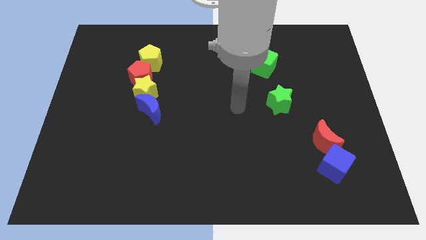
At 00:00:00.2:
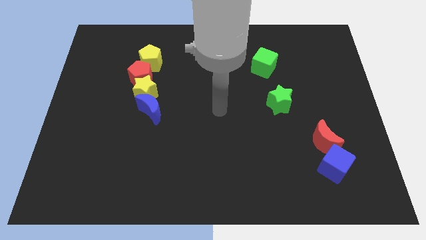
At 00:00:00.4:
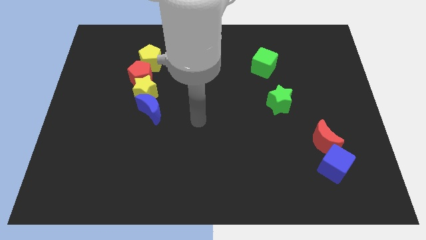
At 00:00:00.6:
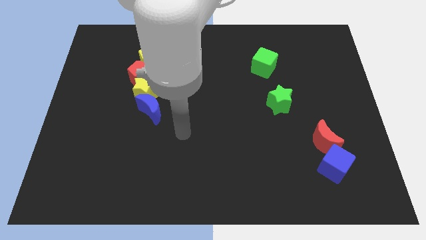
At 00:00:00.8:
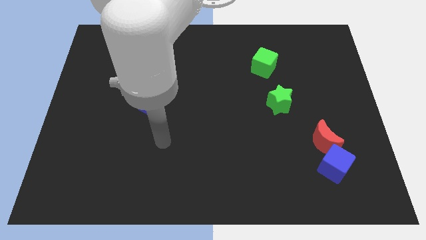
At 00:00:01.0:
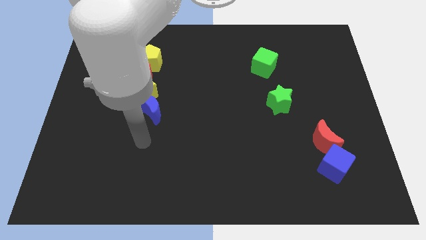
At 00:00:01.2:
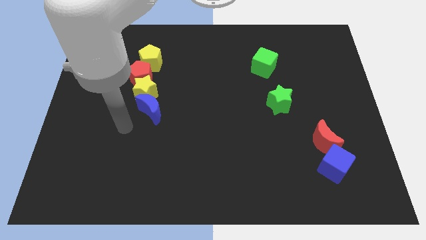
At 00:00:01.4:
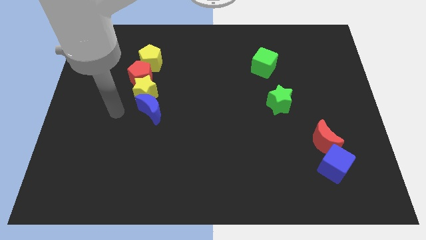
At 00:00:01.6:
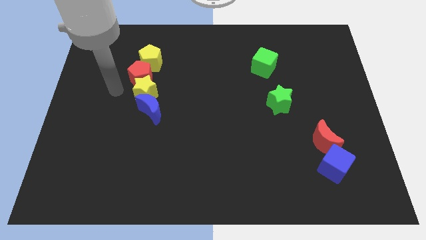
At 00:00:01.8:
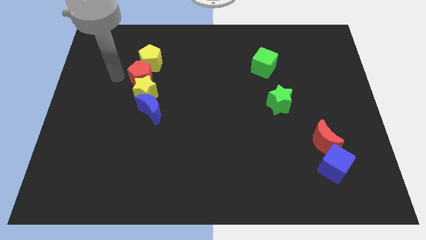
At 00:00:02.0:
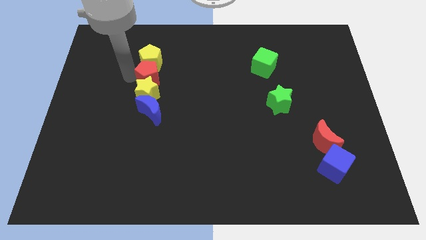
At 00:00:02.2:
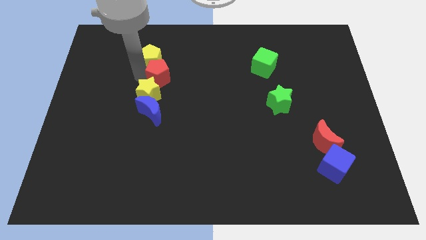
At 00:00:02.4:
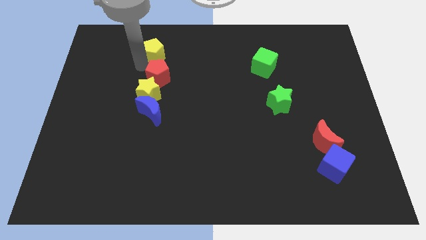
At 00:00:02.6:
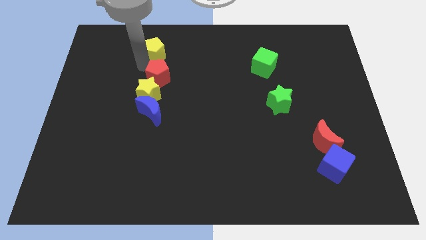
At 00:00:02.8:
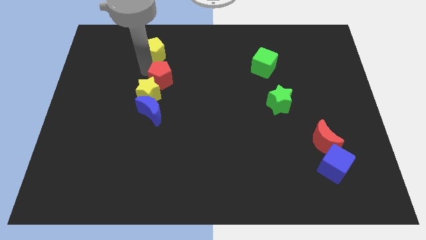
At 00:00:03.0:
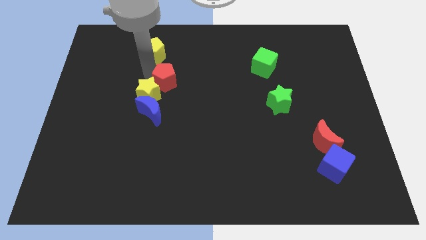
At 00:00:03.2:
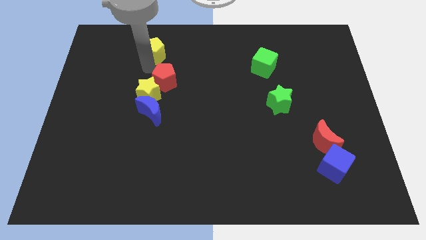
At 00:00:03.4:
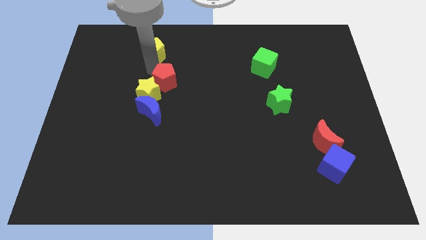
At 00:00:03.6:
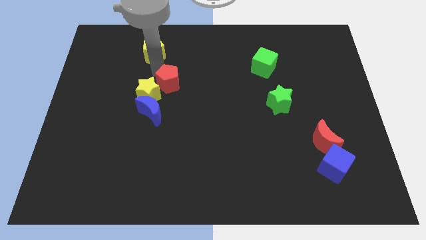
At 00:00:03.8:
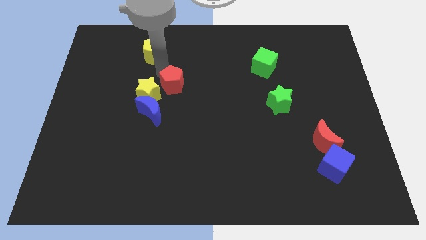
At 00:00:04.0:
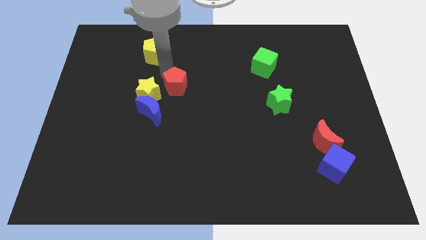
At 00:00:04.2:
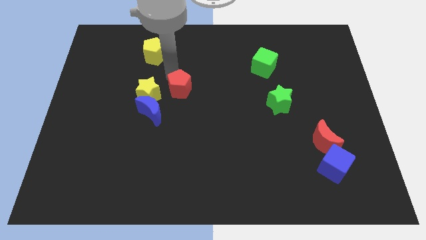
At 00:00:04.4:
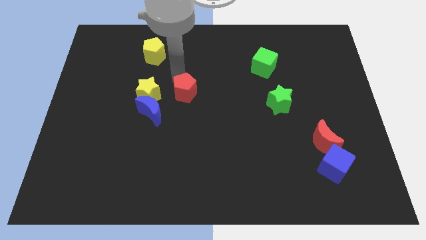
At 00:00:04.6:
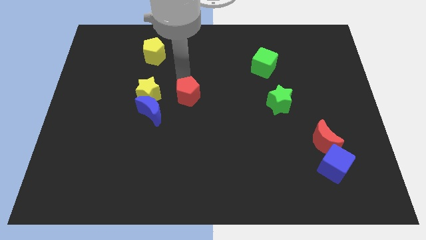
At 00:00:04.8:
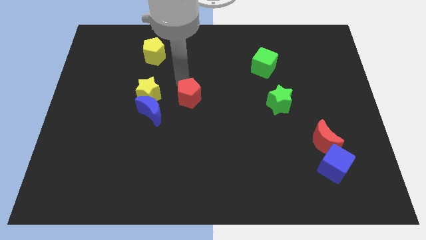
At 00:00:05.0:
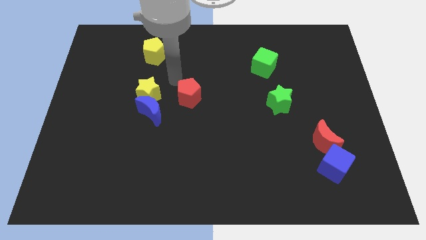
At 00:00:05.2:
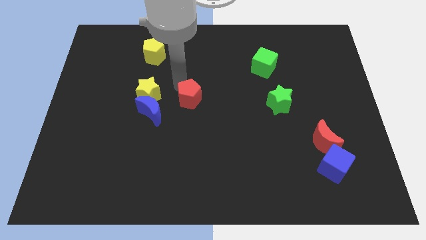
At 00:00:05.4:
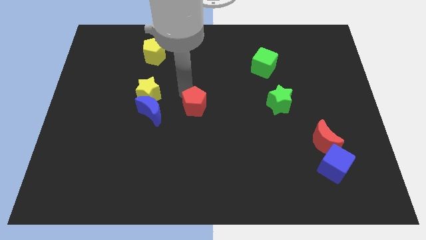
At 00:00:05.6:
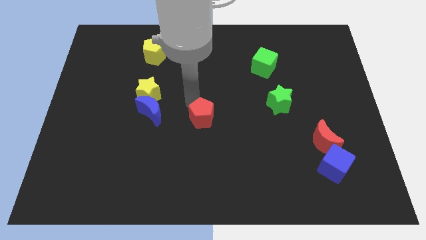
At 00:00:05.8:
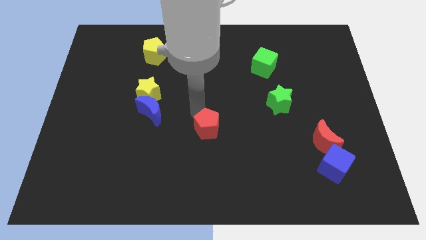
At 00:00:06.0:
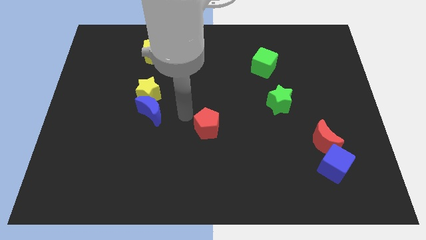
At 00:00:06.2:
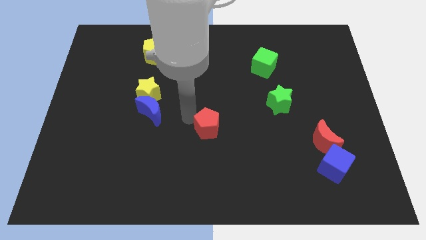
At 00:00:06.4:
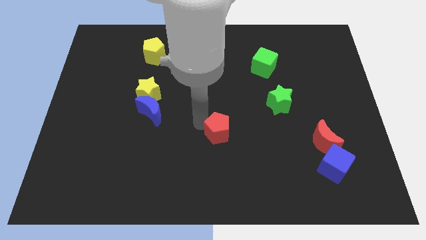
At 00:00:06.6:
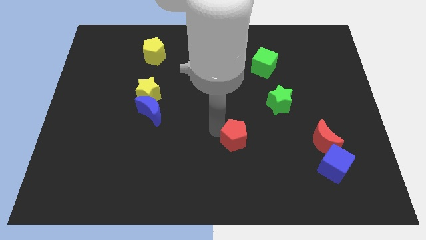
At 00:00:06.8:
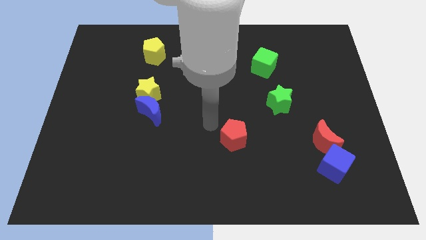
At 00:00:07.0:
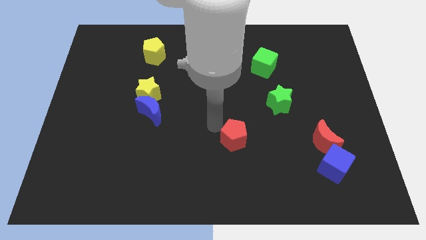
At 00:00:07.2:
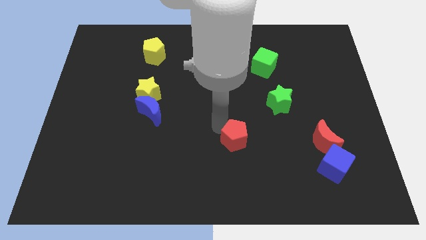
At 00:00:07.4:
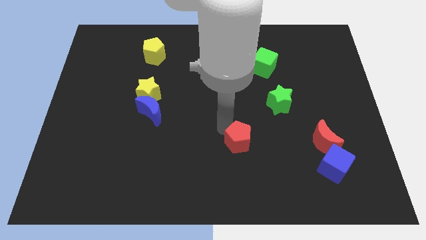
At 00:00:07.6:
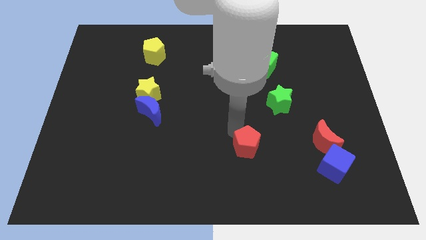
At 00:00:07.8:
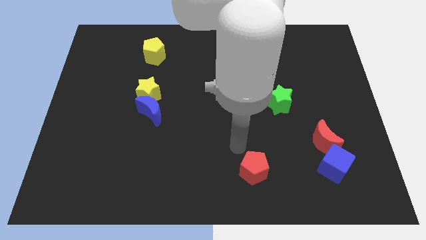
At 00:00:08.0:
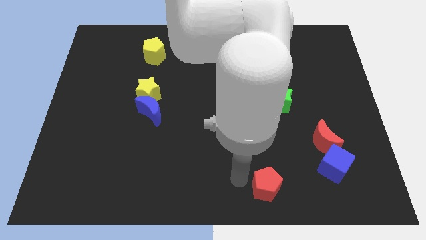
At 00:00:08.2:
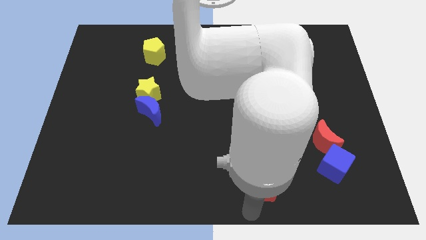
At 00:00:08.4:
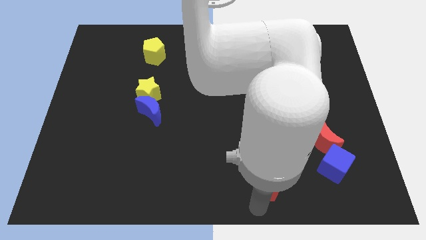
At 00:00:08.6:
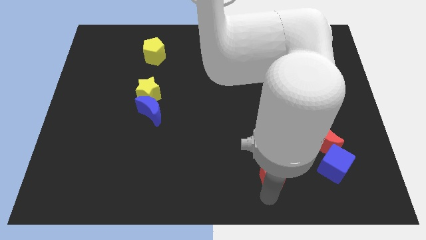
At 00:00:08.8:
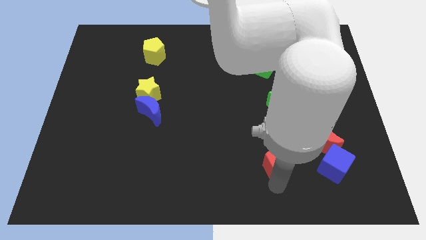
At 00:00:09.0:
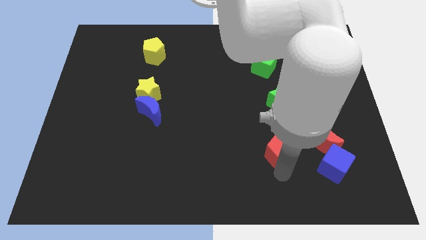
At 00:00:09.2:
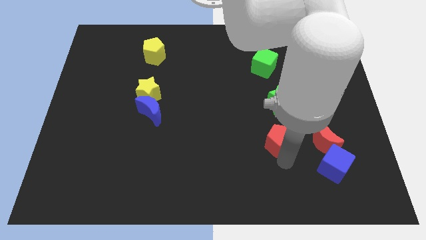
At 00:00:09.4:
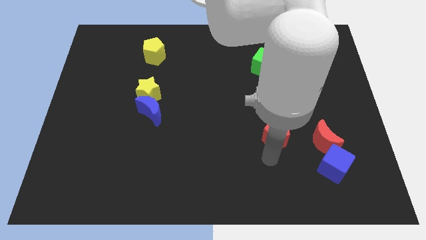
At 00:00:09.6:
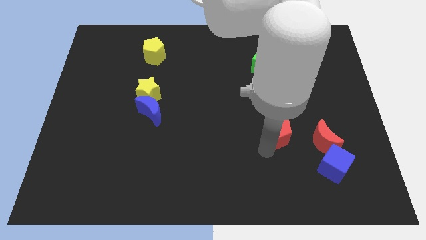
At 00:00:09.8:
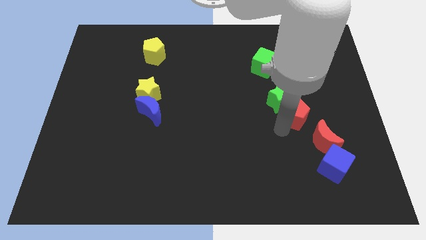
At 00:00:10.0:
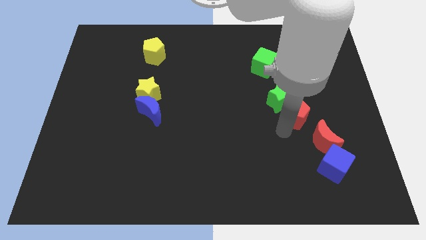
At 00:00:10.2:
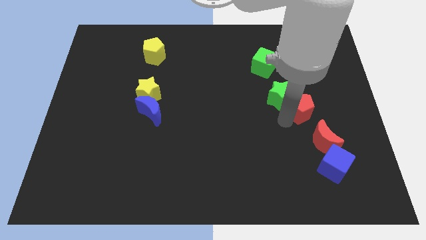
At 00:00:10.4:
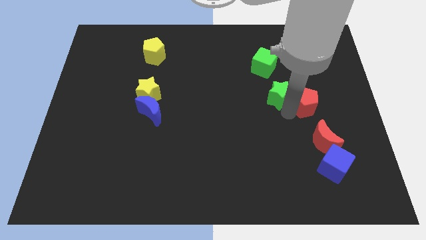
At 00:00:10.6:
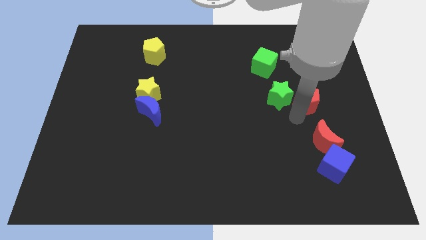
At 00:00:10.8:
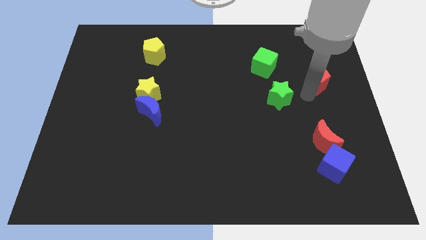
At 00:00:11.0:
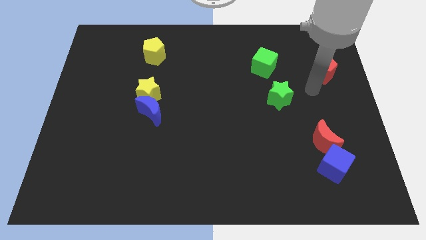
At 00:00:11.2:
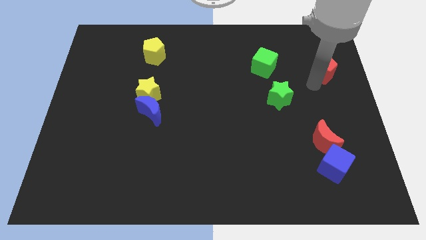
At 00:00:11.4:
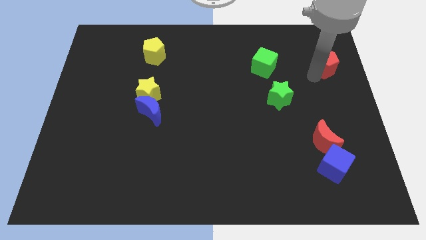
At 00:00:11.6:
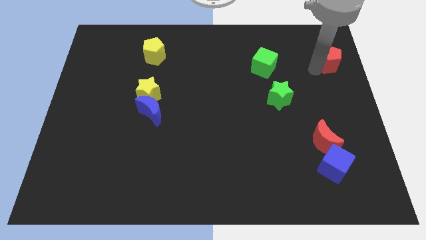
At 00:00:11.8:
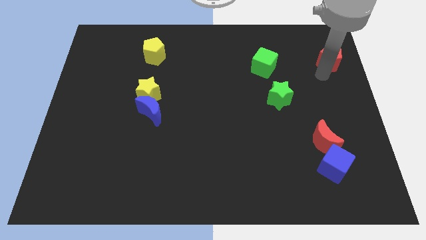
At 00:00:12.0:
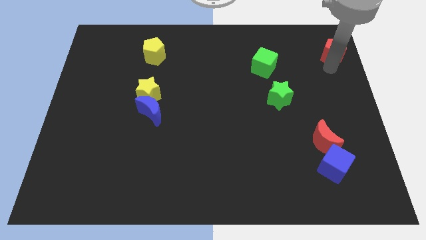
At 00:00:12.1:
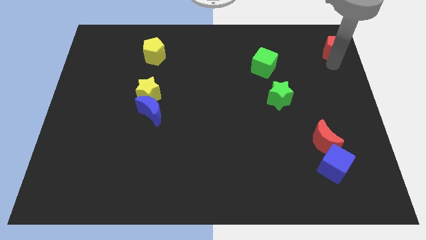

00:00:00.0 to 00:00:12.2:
put the red pentagon to the top right

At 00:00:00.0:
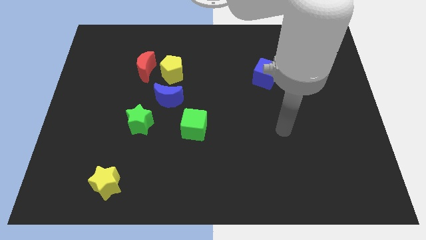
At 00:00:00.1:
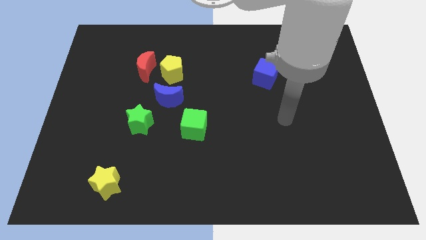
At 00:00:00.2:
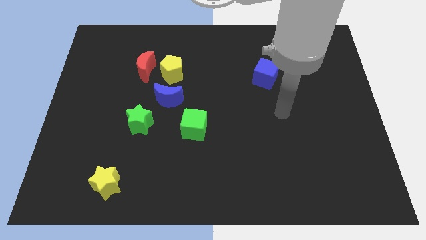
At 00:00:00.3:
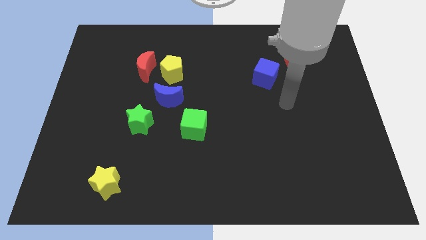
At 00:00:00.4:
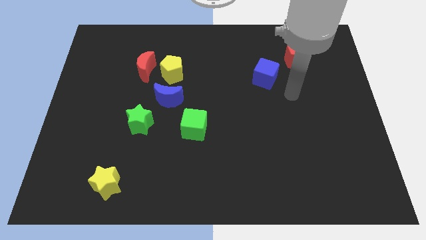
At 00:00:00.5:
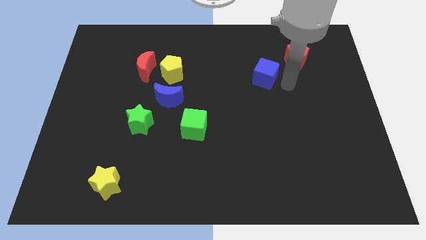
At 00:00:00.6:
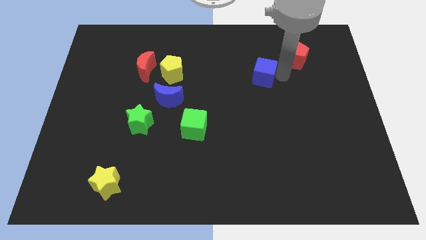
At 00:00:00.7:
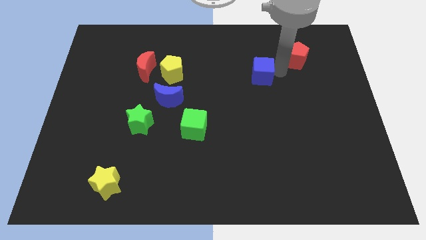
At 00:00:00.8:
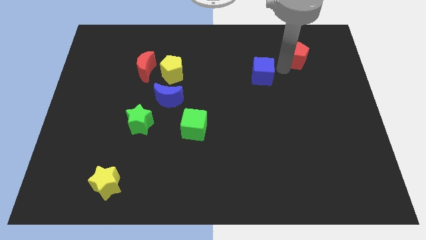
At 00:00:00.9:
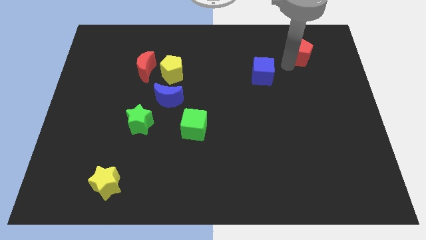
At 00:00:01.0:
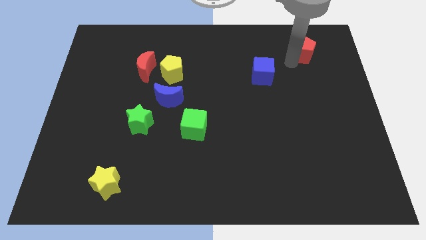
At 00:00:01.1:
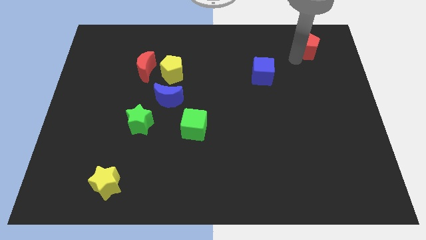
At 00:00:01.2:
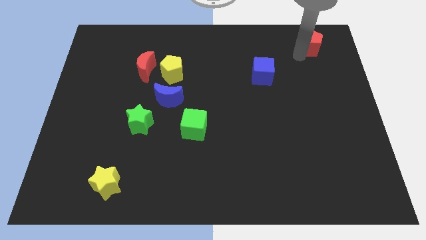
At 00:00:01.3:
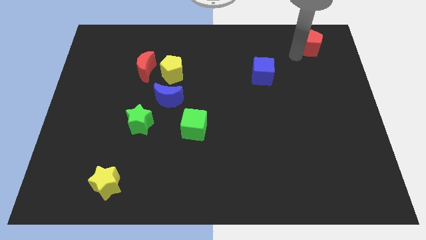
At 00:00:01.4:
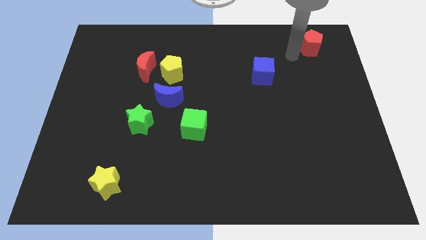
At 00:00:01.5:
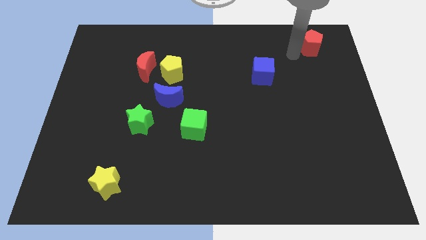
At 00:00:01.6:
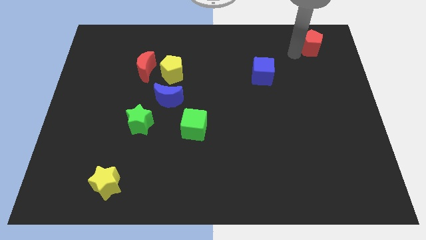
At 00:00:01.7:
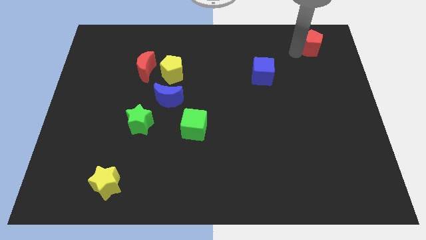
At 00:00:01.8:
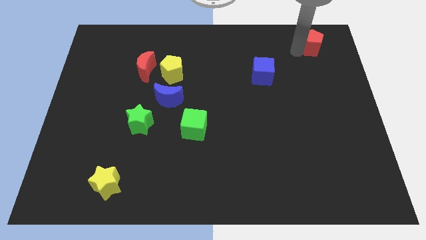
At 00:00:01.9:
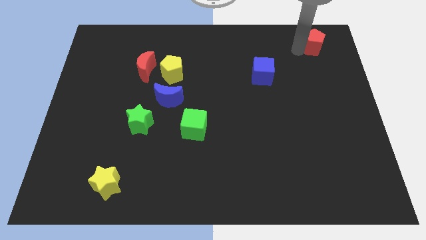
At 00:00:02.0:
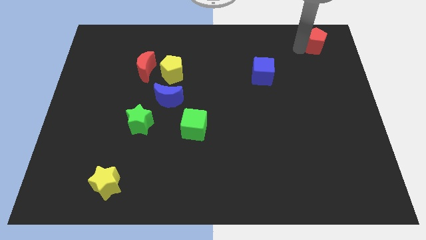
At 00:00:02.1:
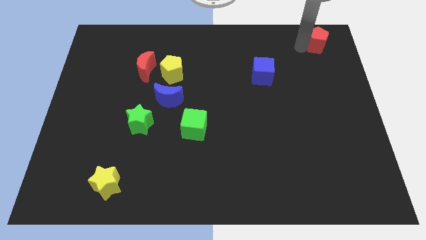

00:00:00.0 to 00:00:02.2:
put the red pentagon to the top right of the board
